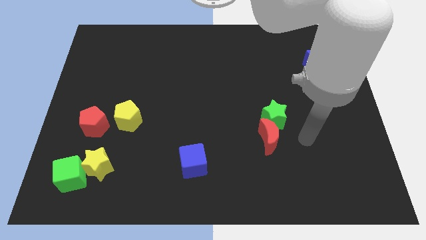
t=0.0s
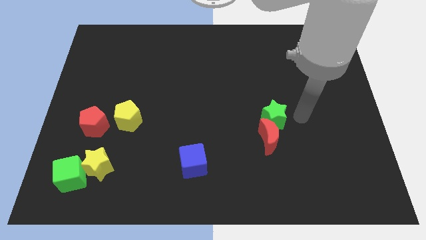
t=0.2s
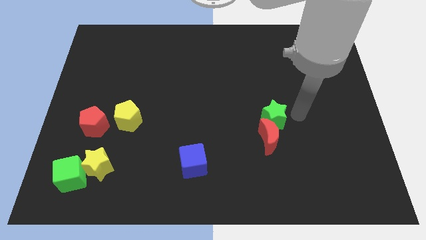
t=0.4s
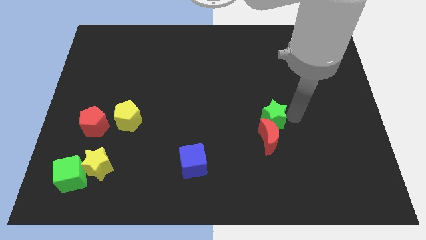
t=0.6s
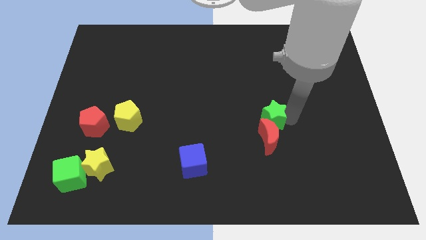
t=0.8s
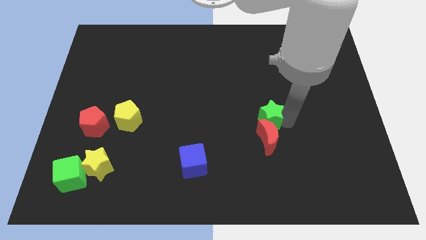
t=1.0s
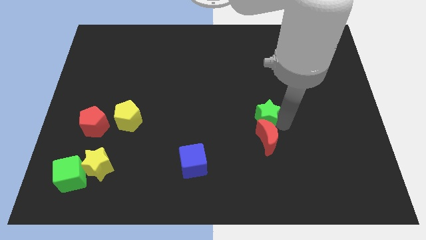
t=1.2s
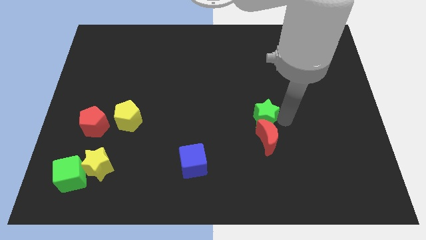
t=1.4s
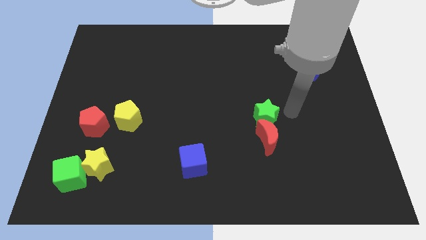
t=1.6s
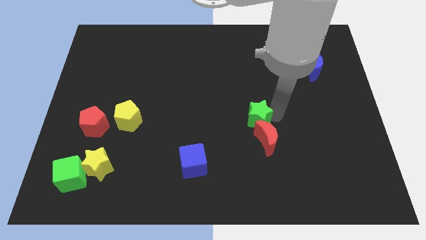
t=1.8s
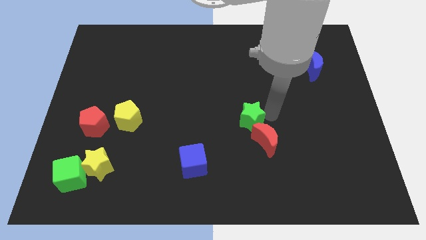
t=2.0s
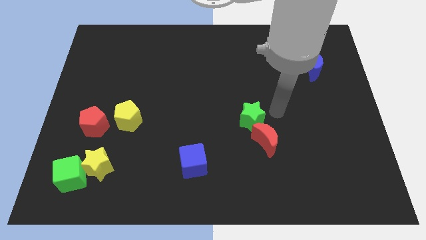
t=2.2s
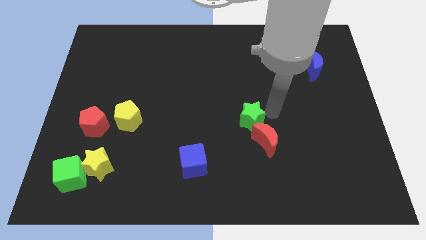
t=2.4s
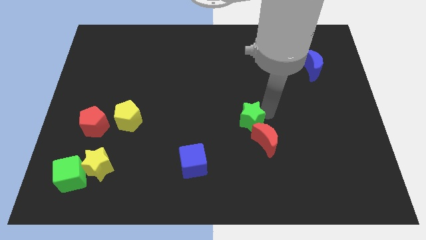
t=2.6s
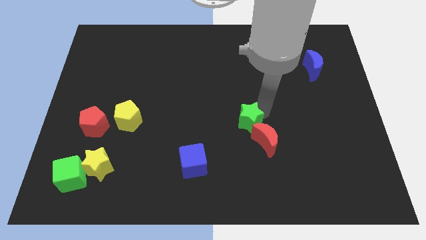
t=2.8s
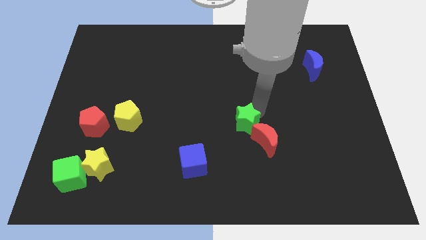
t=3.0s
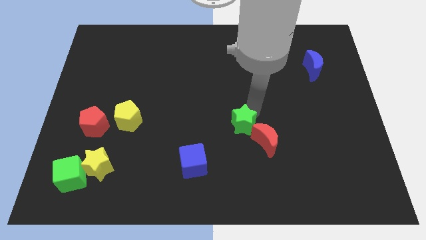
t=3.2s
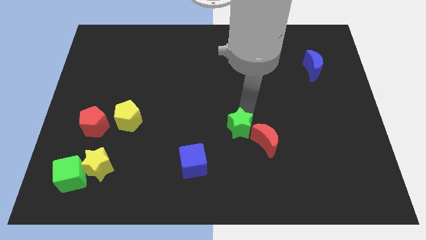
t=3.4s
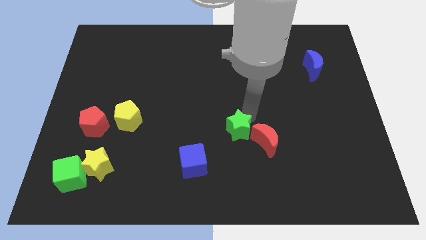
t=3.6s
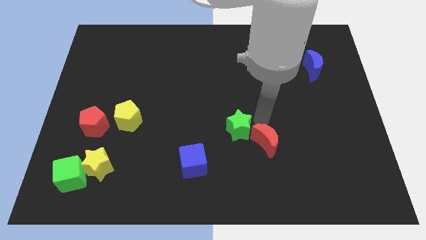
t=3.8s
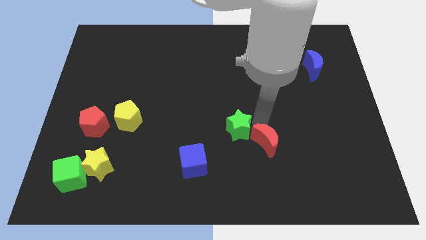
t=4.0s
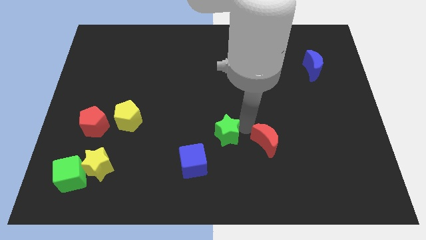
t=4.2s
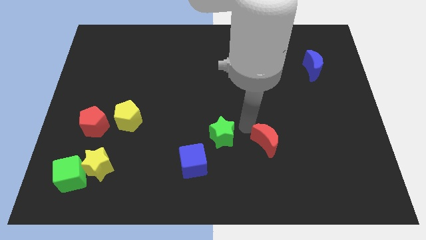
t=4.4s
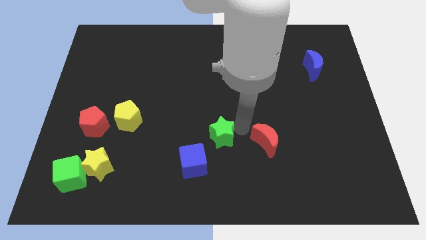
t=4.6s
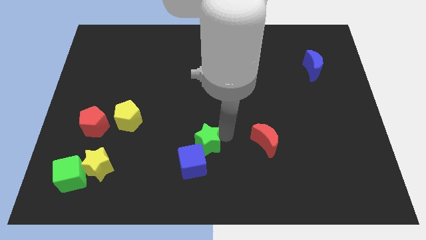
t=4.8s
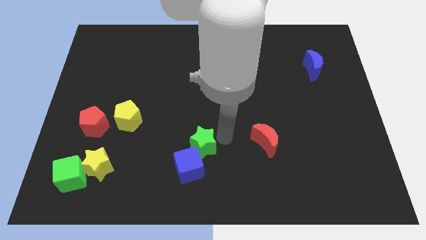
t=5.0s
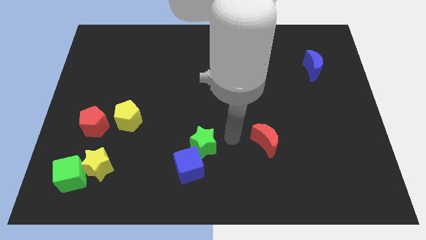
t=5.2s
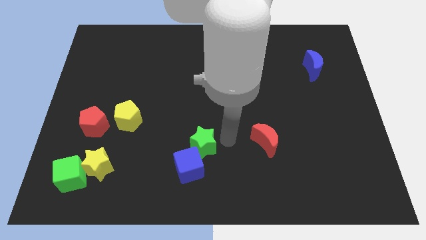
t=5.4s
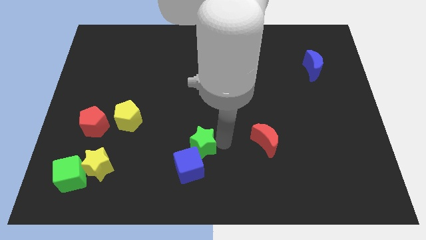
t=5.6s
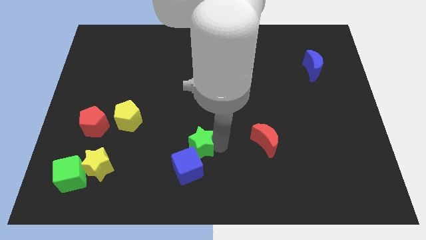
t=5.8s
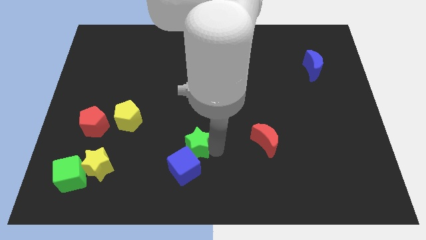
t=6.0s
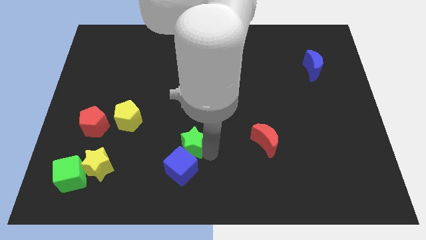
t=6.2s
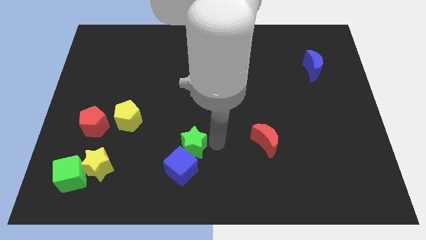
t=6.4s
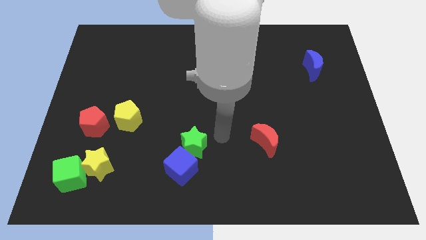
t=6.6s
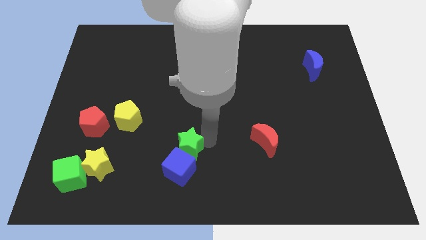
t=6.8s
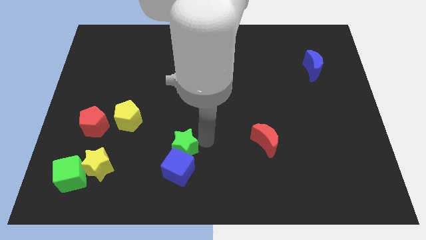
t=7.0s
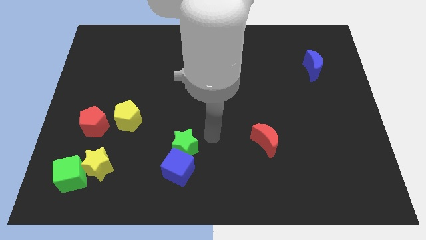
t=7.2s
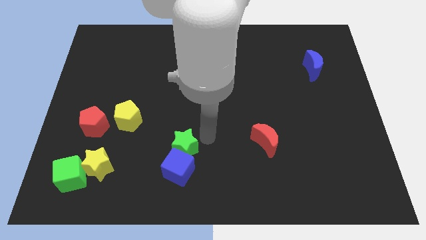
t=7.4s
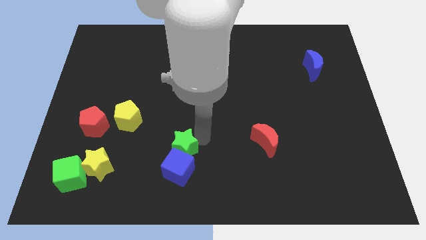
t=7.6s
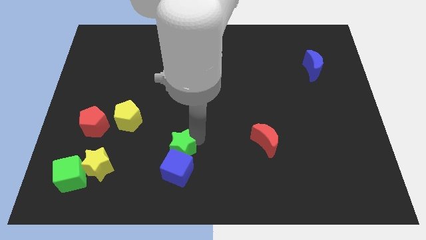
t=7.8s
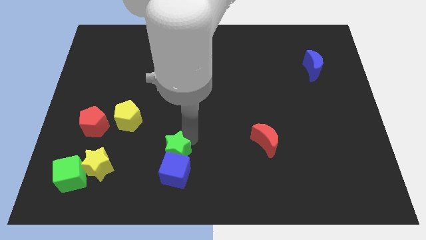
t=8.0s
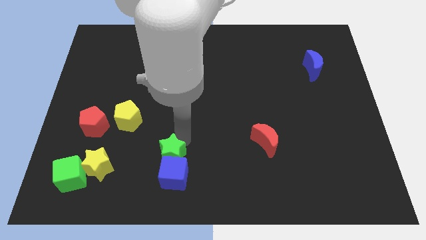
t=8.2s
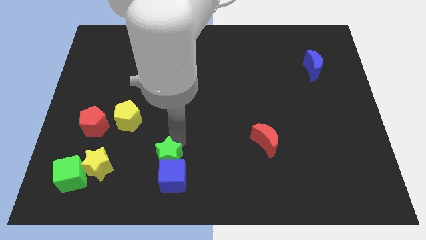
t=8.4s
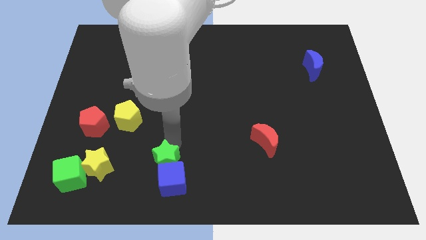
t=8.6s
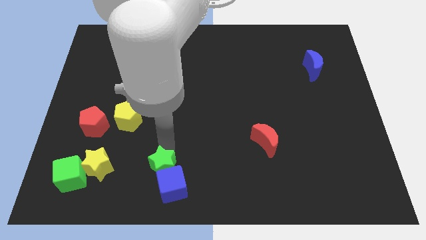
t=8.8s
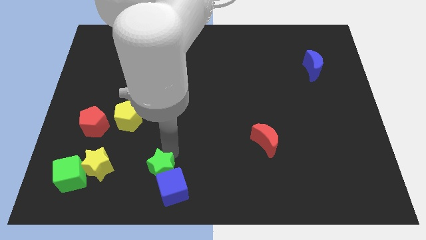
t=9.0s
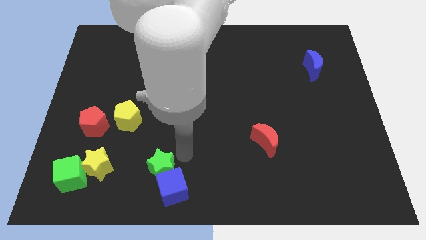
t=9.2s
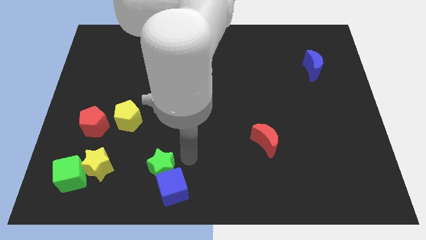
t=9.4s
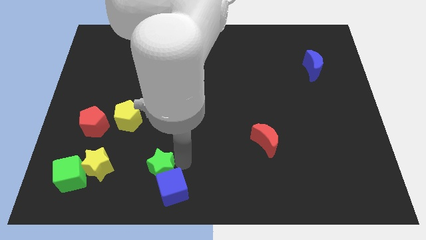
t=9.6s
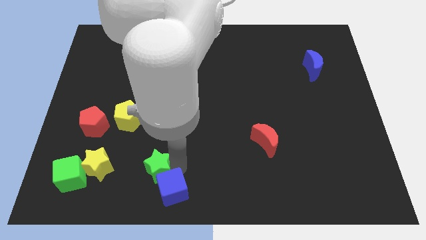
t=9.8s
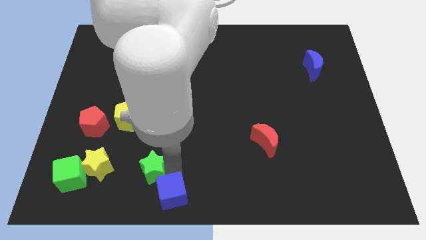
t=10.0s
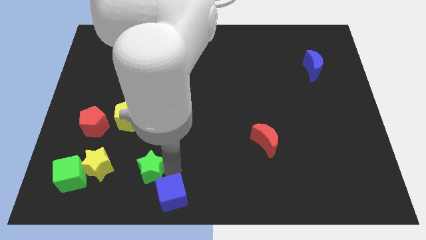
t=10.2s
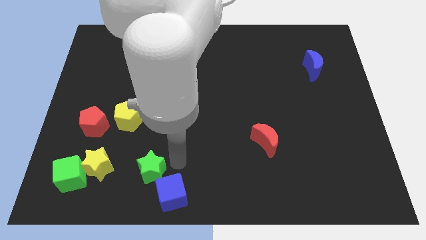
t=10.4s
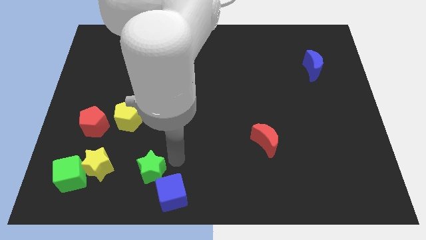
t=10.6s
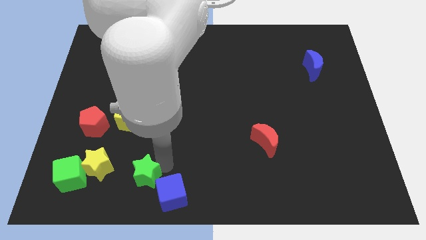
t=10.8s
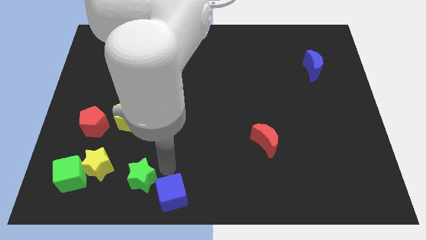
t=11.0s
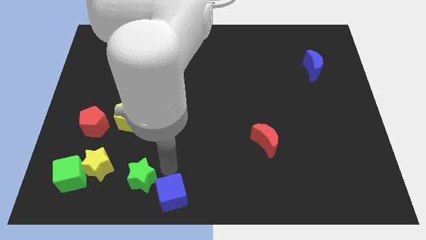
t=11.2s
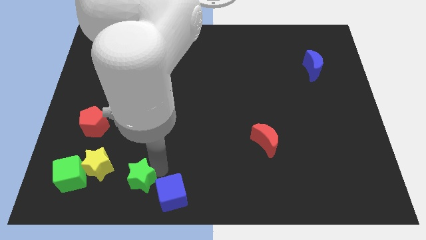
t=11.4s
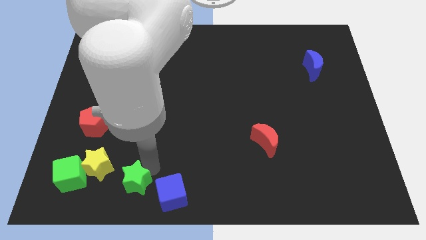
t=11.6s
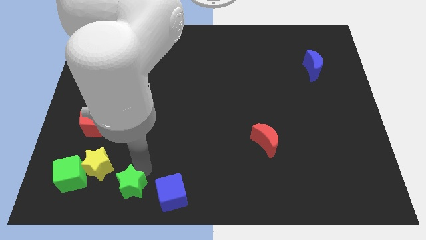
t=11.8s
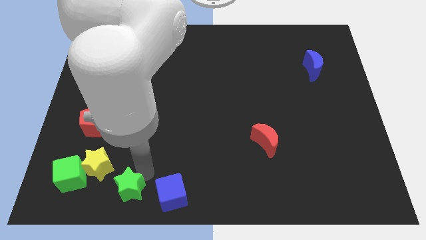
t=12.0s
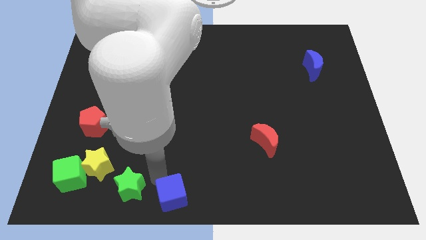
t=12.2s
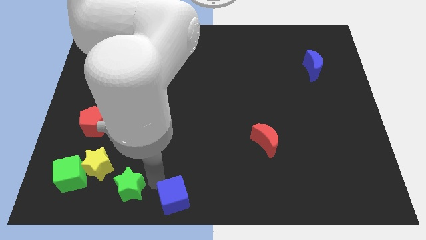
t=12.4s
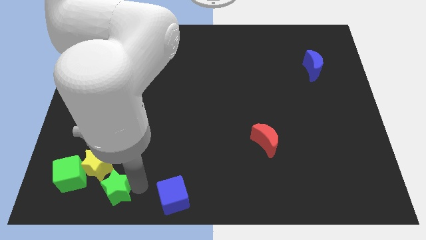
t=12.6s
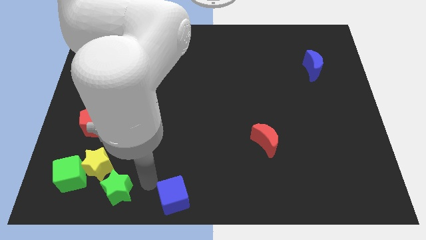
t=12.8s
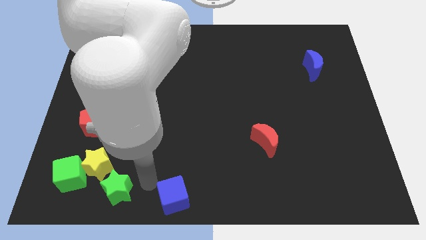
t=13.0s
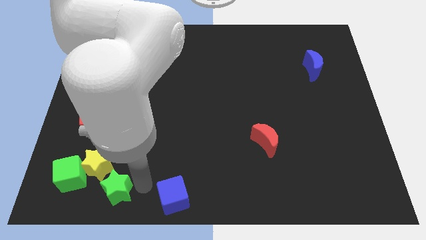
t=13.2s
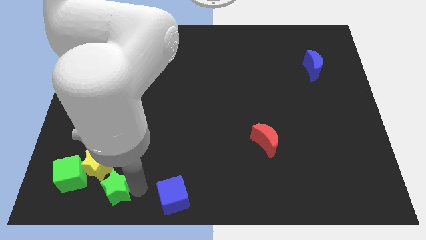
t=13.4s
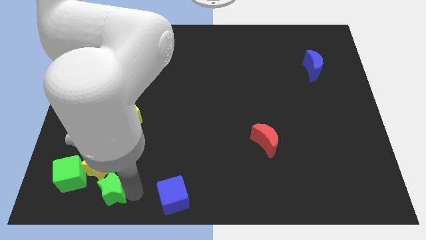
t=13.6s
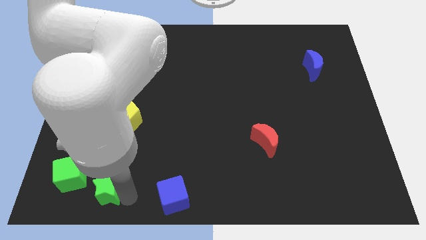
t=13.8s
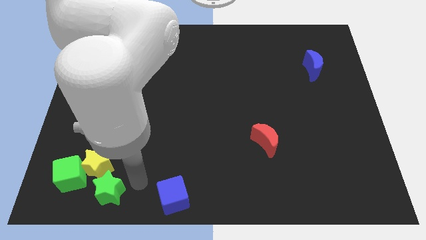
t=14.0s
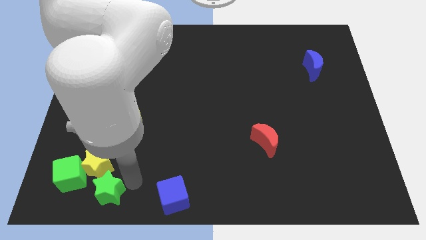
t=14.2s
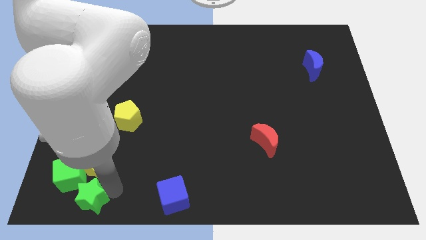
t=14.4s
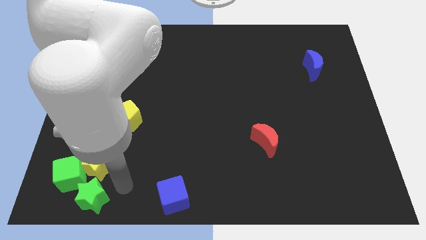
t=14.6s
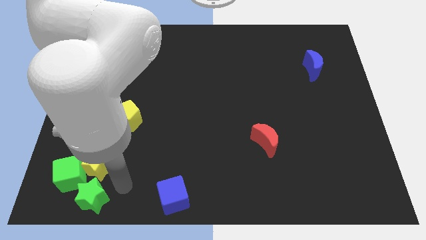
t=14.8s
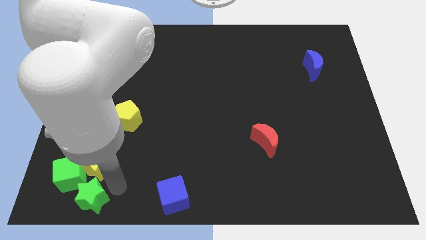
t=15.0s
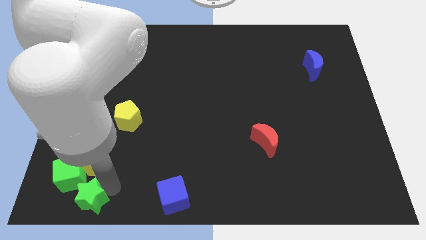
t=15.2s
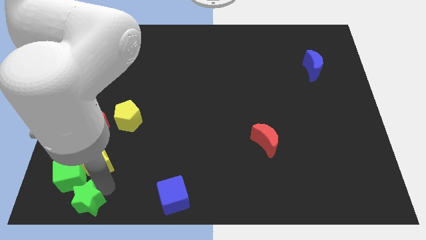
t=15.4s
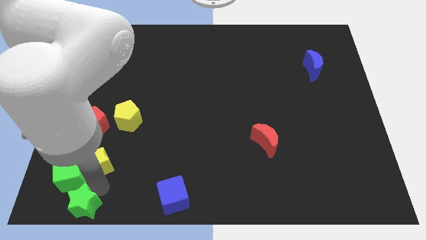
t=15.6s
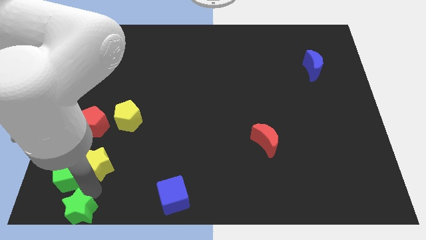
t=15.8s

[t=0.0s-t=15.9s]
slide the green star to the bottom left of the board
